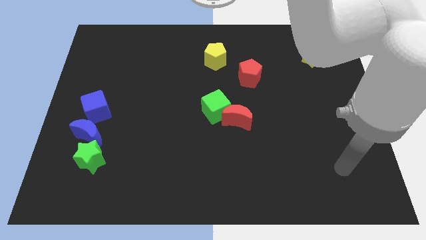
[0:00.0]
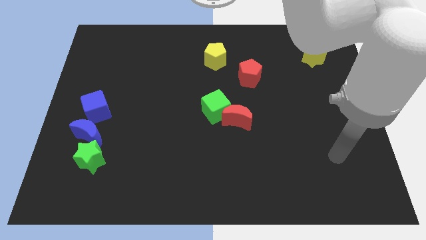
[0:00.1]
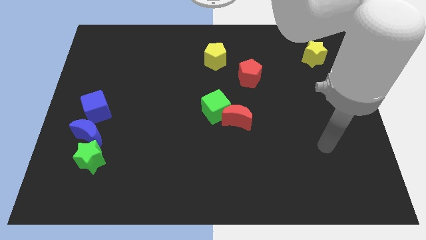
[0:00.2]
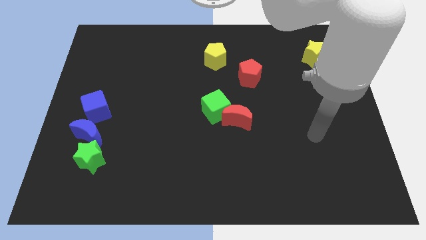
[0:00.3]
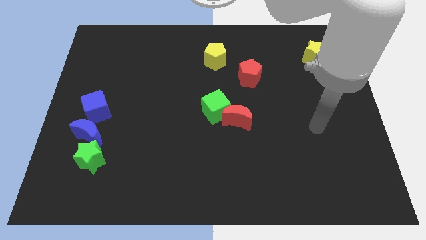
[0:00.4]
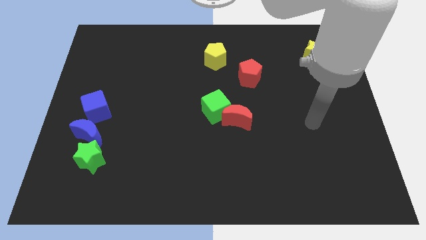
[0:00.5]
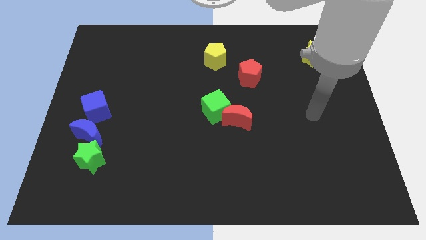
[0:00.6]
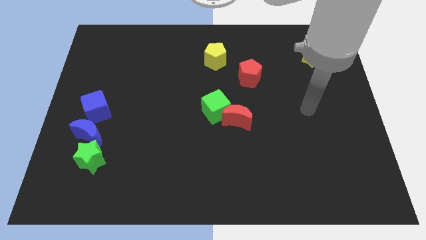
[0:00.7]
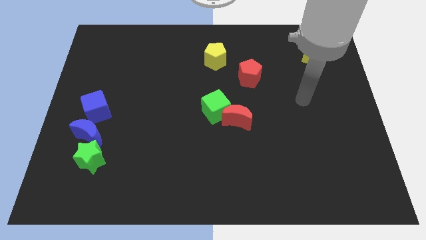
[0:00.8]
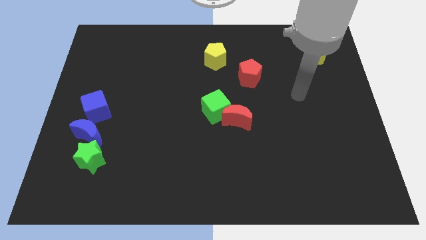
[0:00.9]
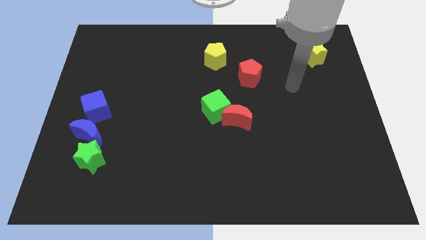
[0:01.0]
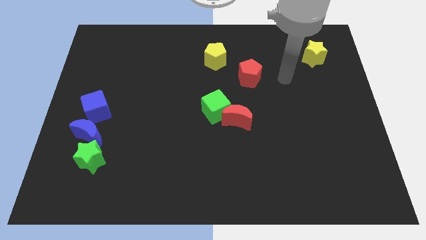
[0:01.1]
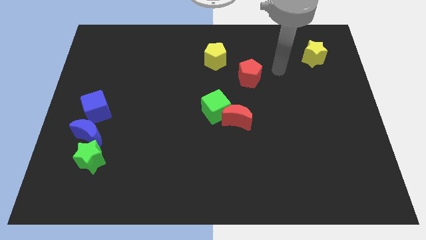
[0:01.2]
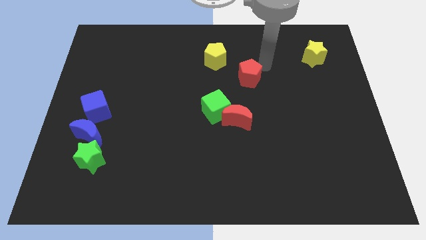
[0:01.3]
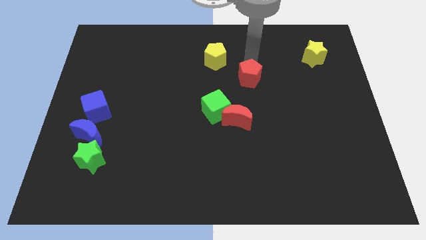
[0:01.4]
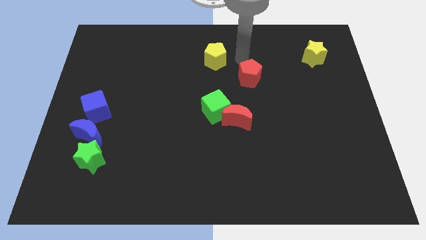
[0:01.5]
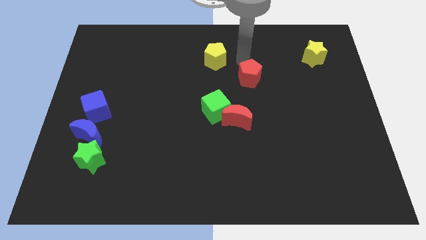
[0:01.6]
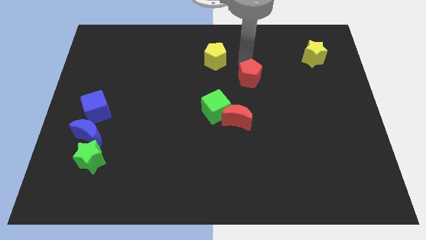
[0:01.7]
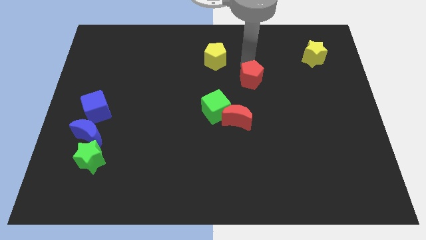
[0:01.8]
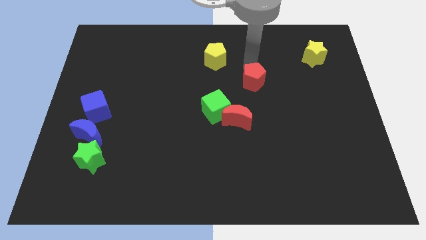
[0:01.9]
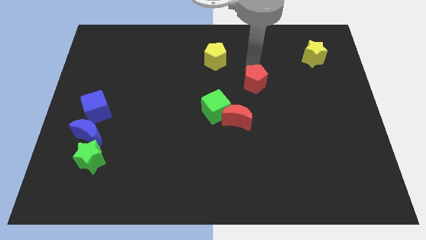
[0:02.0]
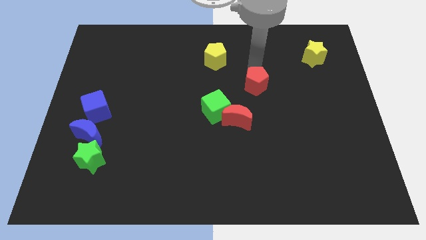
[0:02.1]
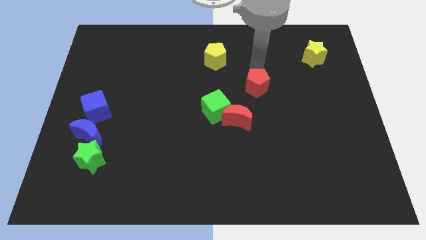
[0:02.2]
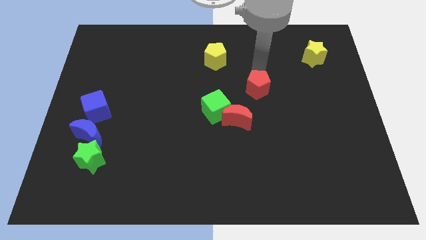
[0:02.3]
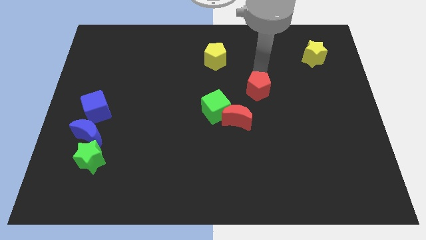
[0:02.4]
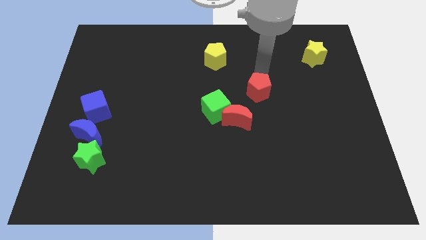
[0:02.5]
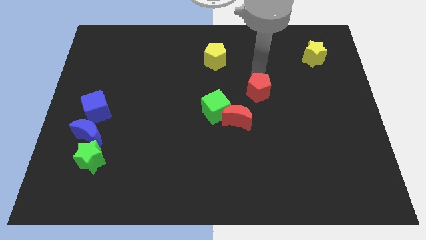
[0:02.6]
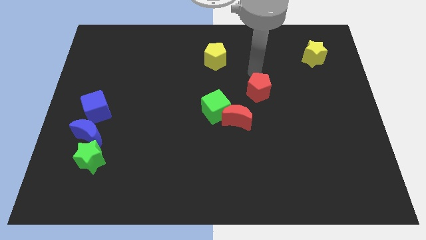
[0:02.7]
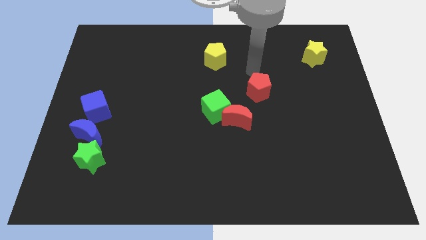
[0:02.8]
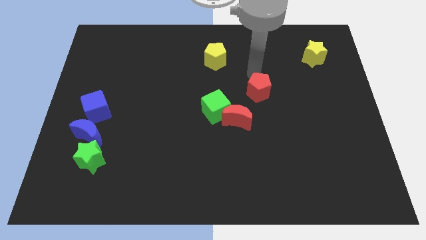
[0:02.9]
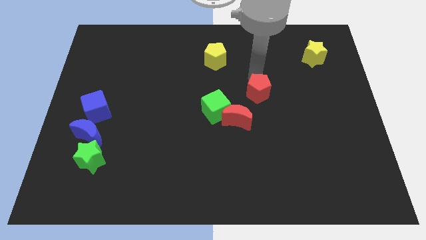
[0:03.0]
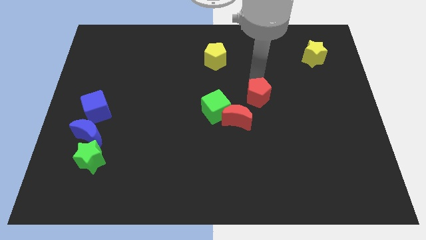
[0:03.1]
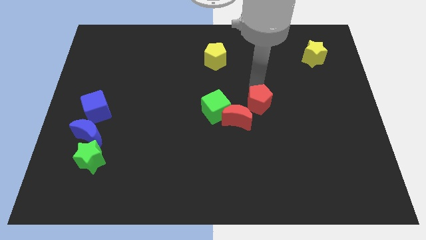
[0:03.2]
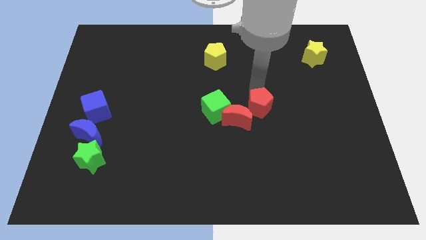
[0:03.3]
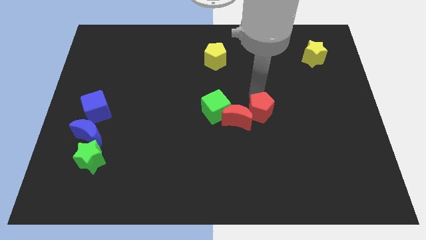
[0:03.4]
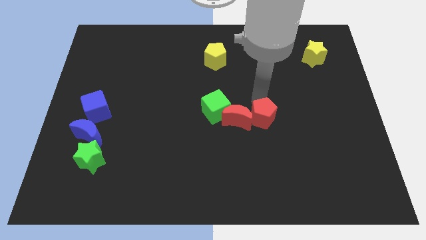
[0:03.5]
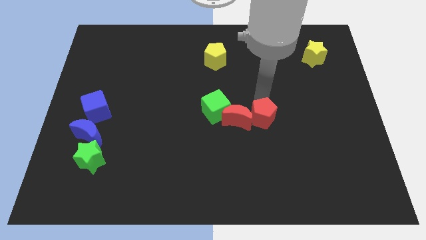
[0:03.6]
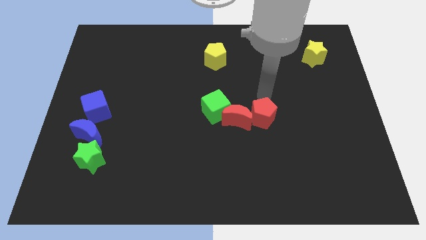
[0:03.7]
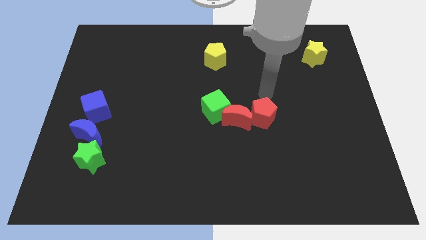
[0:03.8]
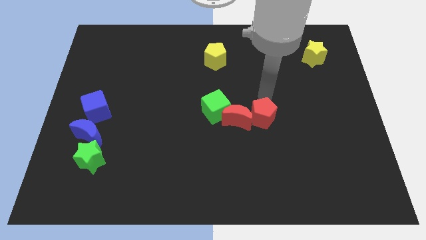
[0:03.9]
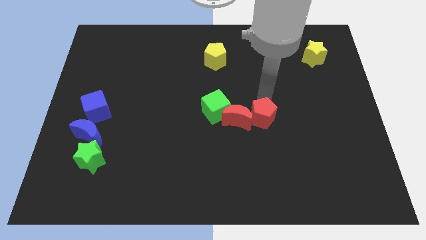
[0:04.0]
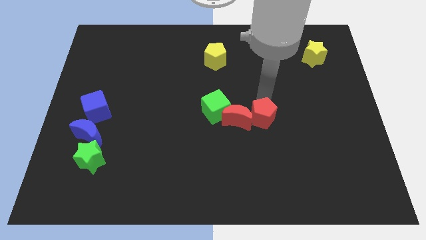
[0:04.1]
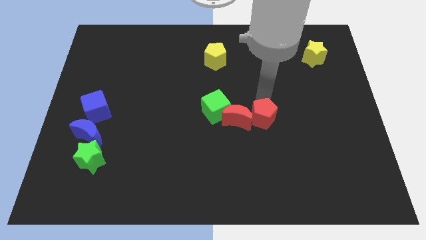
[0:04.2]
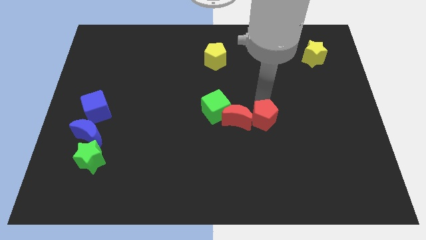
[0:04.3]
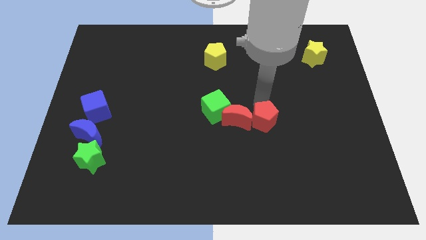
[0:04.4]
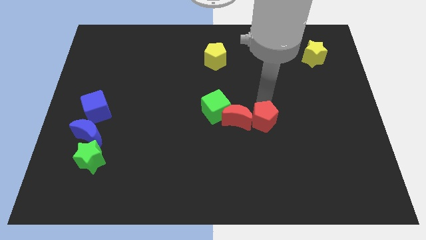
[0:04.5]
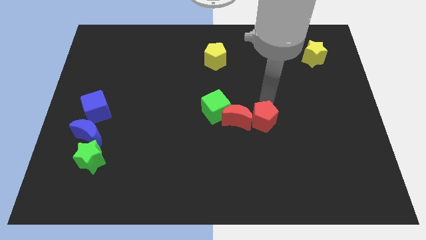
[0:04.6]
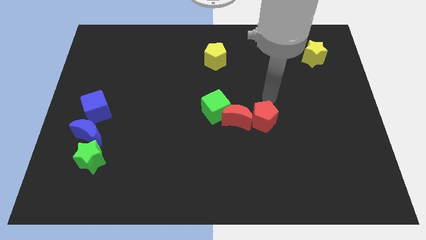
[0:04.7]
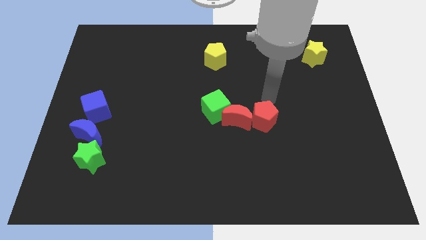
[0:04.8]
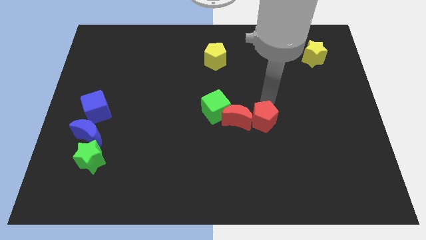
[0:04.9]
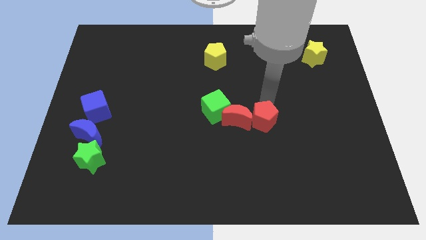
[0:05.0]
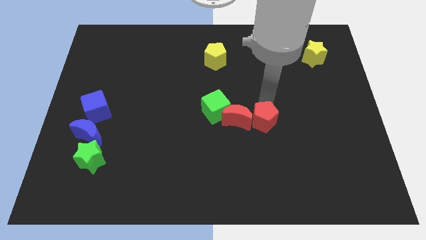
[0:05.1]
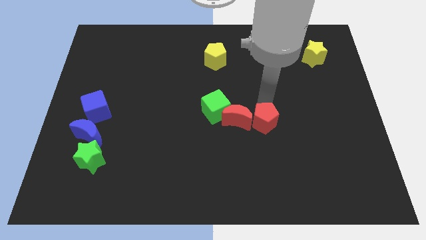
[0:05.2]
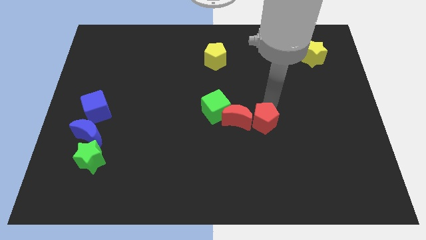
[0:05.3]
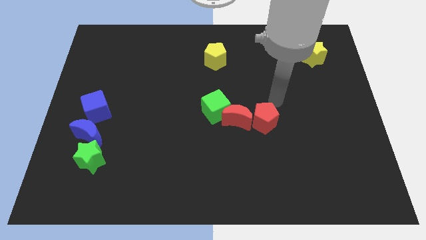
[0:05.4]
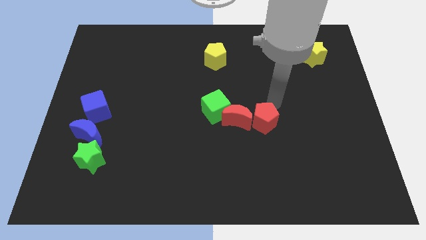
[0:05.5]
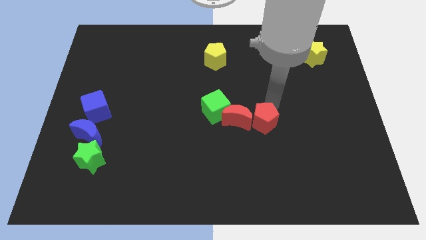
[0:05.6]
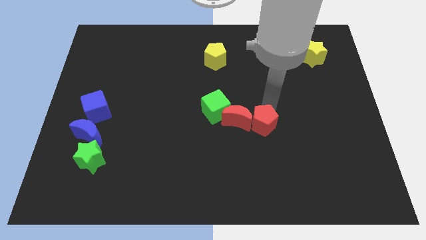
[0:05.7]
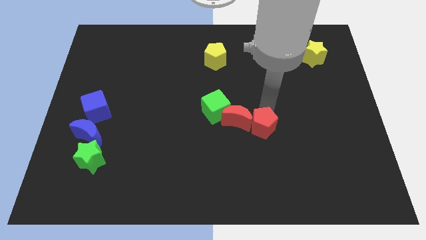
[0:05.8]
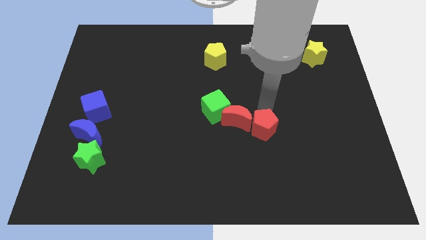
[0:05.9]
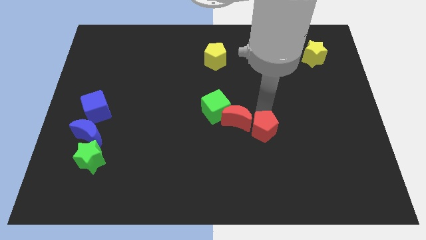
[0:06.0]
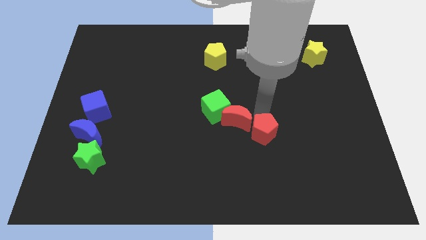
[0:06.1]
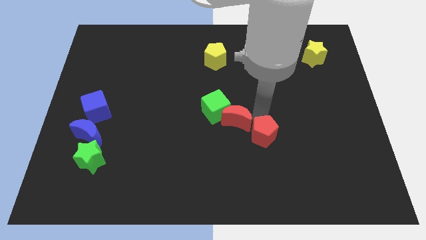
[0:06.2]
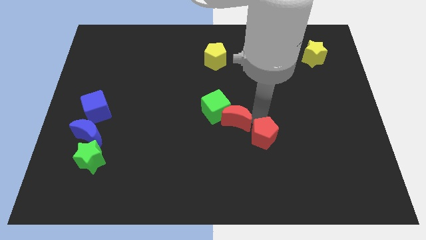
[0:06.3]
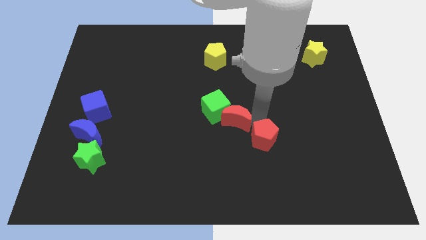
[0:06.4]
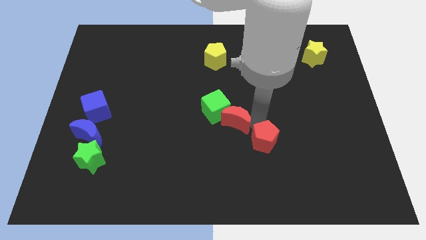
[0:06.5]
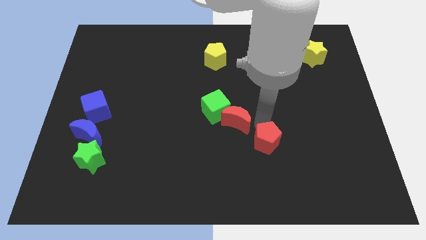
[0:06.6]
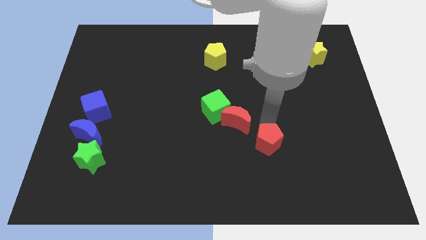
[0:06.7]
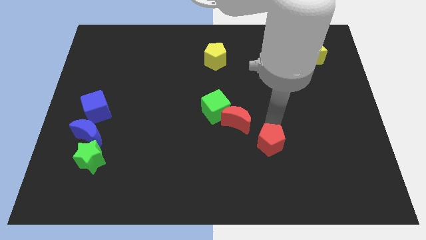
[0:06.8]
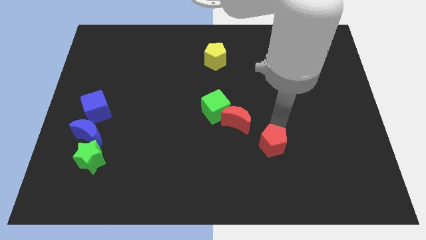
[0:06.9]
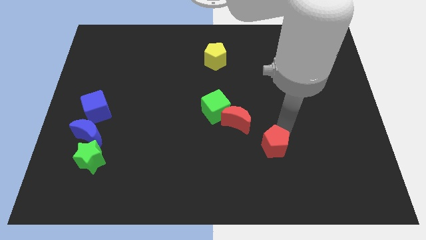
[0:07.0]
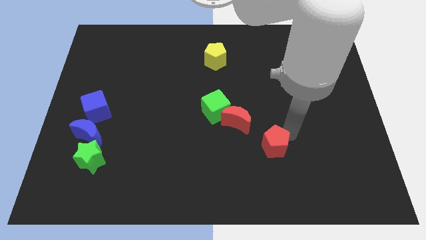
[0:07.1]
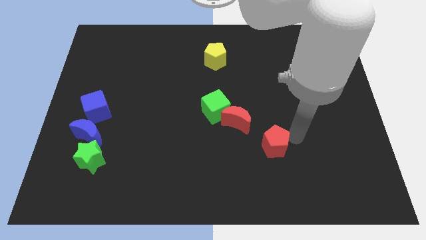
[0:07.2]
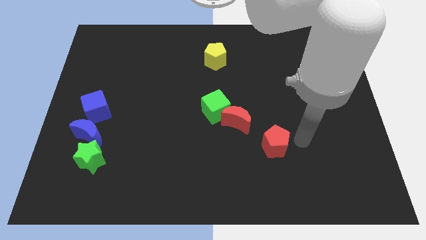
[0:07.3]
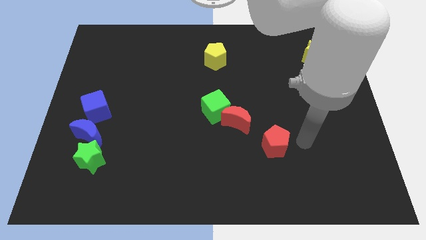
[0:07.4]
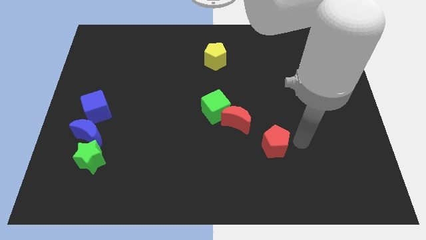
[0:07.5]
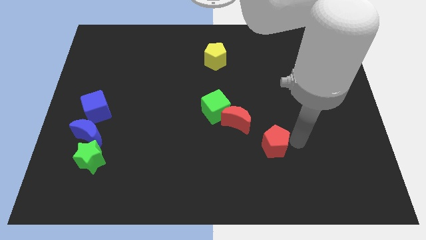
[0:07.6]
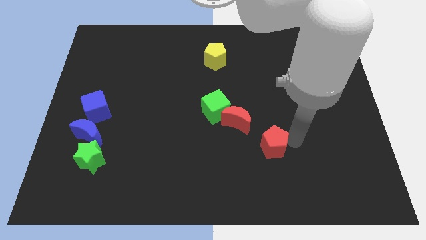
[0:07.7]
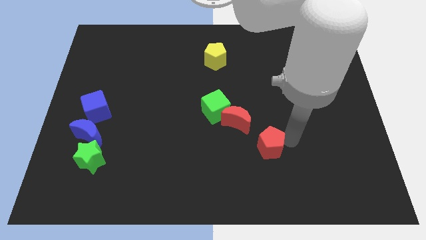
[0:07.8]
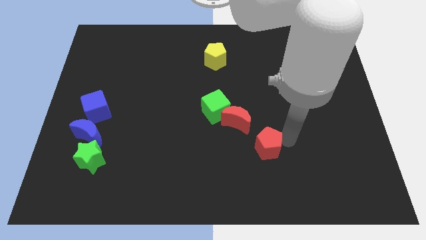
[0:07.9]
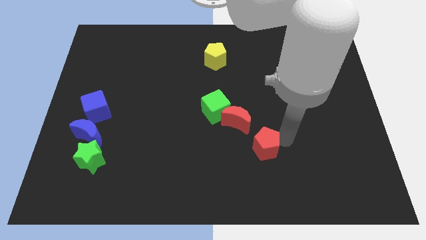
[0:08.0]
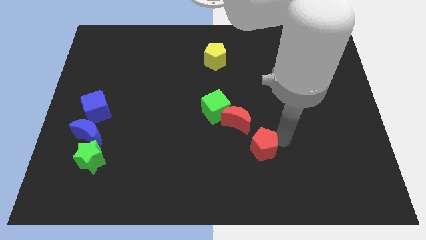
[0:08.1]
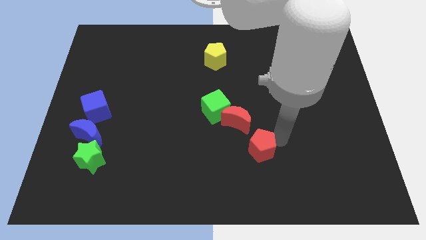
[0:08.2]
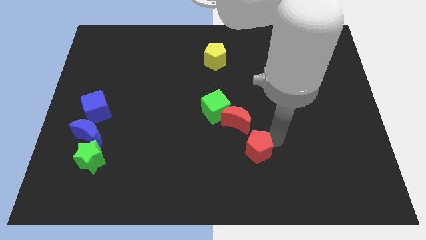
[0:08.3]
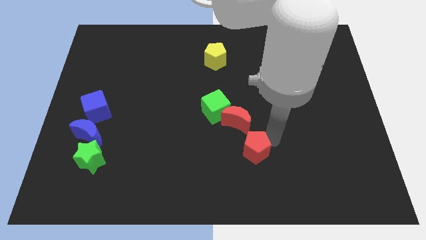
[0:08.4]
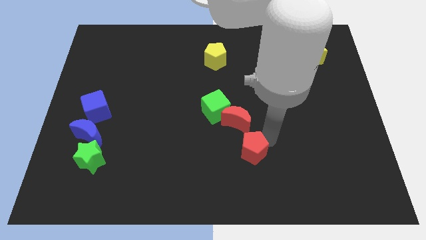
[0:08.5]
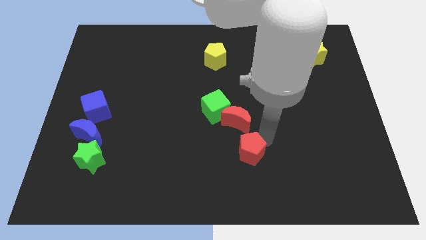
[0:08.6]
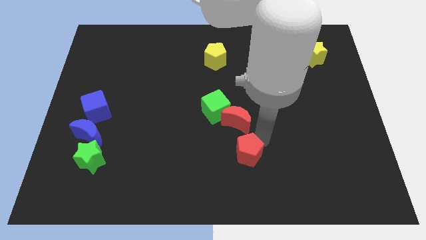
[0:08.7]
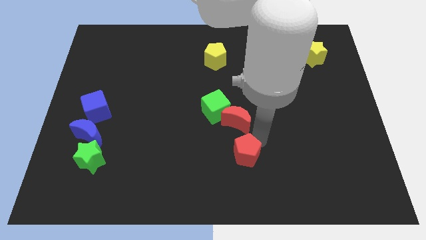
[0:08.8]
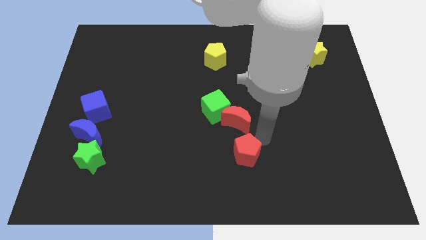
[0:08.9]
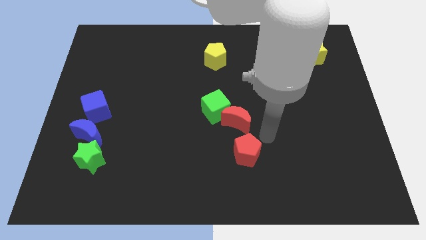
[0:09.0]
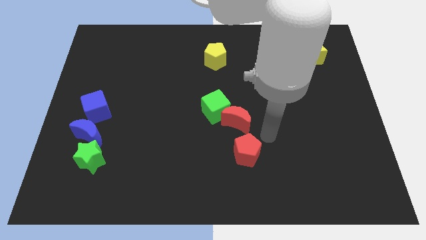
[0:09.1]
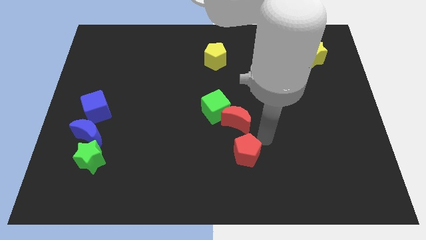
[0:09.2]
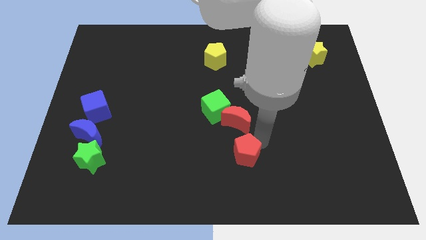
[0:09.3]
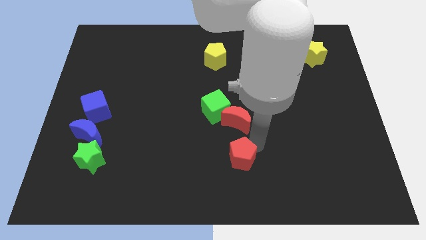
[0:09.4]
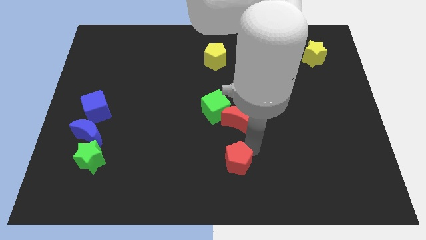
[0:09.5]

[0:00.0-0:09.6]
slide the red pentagon to the bottom side
